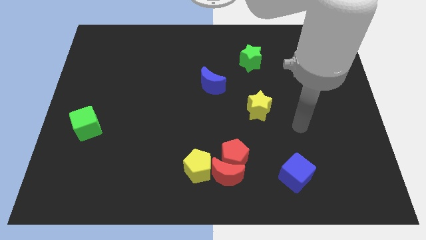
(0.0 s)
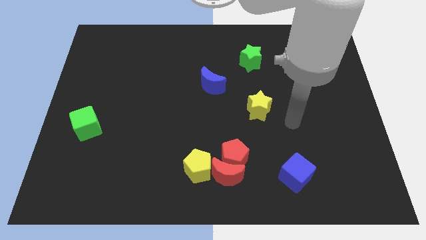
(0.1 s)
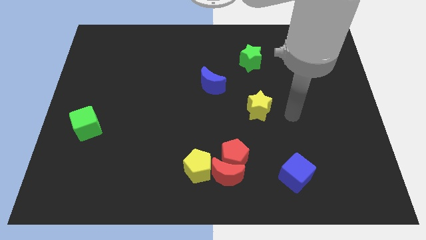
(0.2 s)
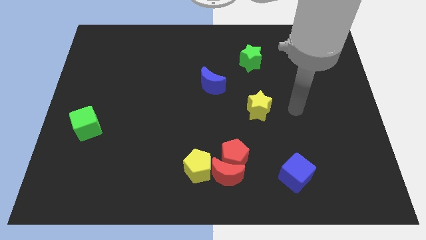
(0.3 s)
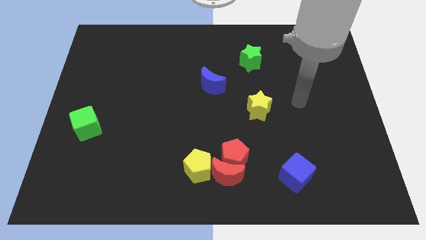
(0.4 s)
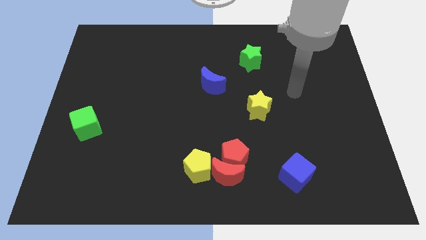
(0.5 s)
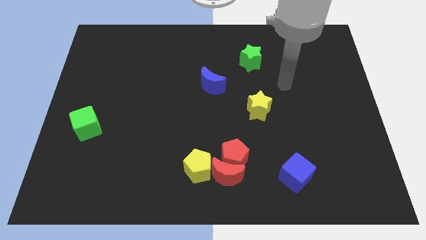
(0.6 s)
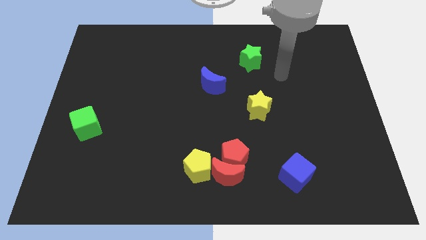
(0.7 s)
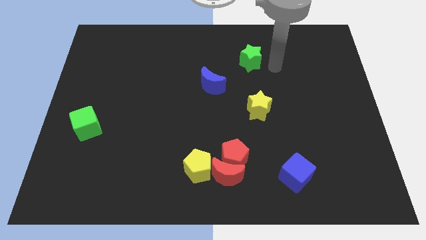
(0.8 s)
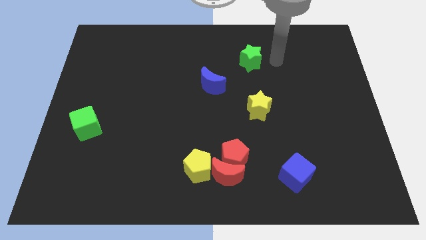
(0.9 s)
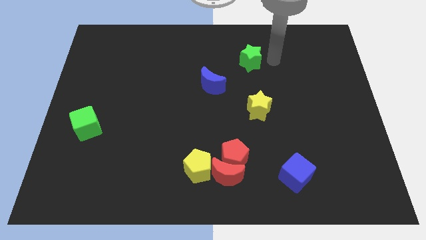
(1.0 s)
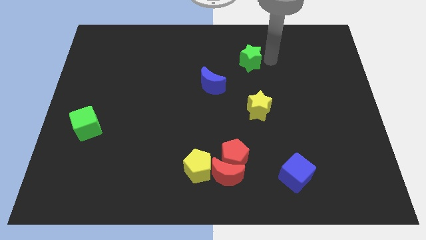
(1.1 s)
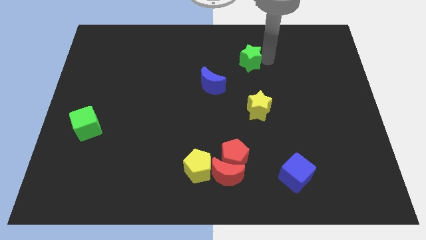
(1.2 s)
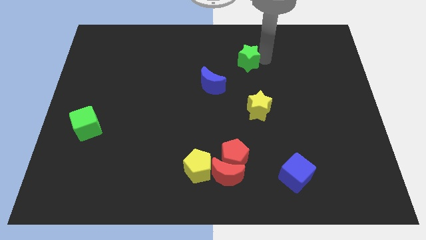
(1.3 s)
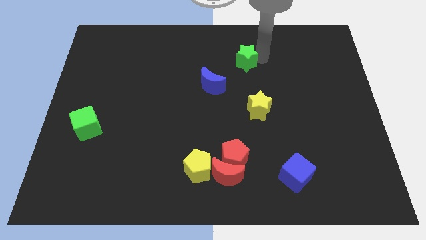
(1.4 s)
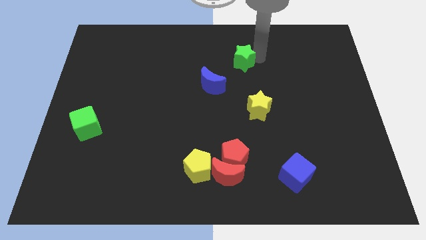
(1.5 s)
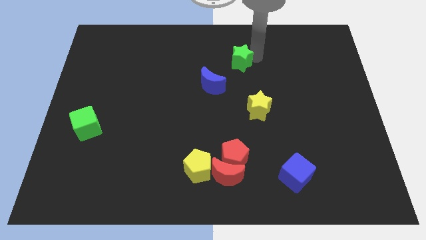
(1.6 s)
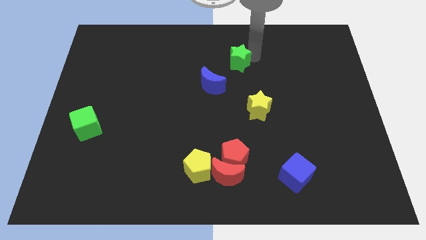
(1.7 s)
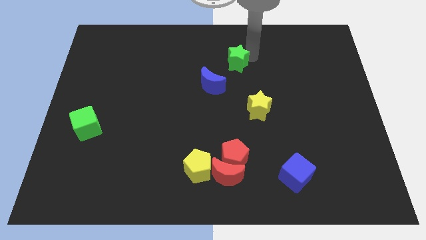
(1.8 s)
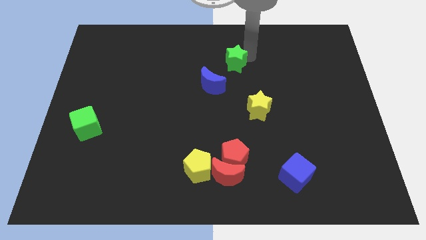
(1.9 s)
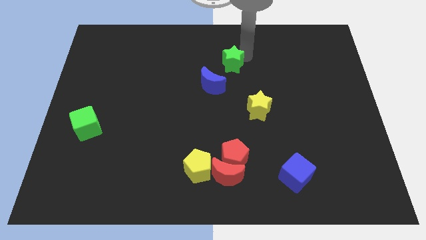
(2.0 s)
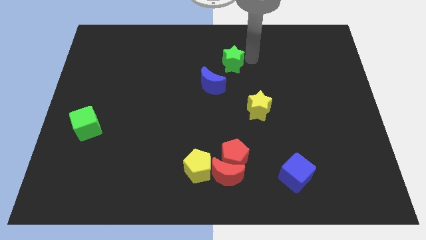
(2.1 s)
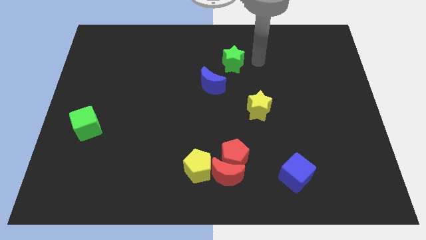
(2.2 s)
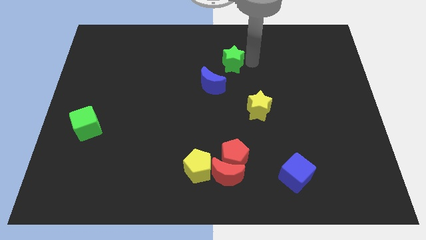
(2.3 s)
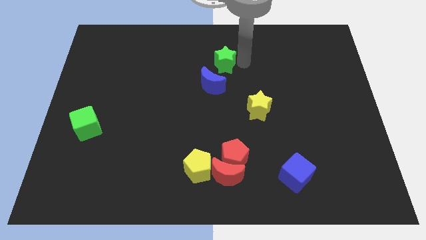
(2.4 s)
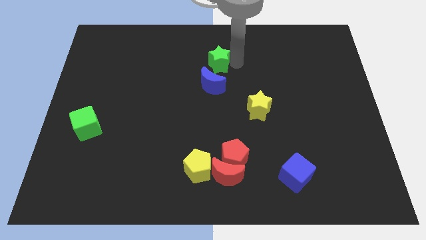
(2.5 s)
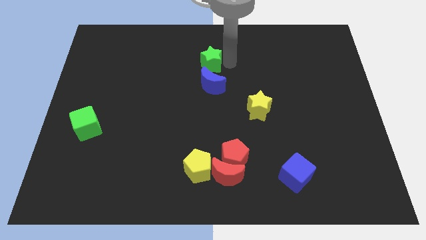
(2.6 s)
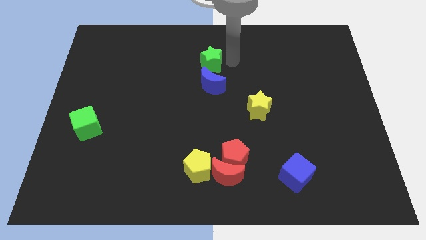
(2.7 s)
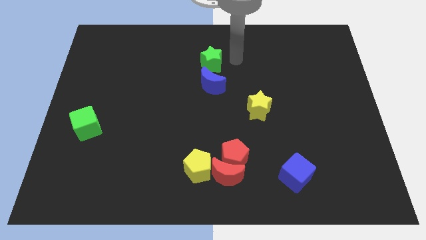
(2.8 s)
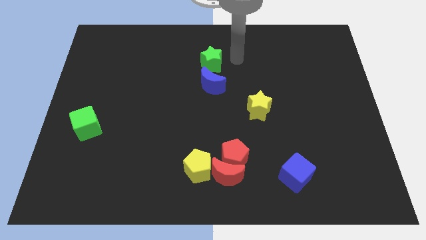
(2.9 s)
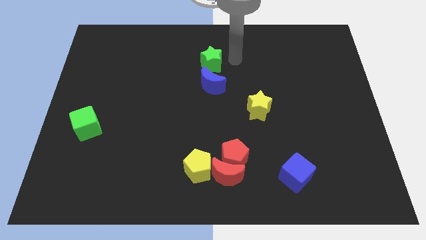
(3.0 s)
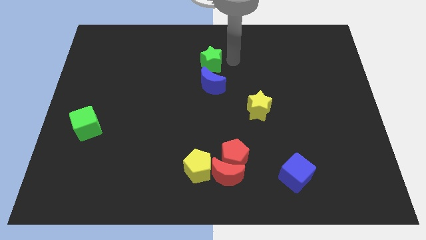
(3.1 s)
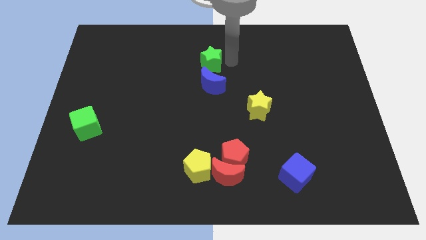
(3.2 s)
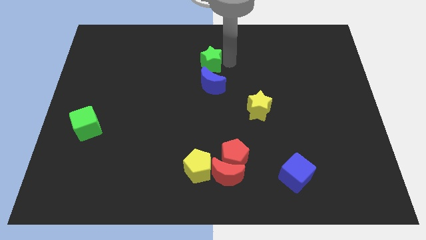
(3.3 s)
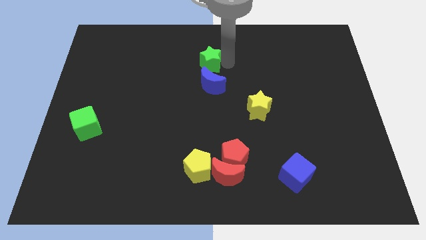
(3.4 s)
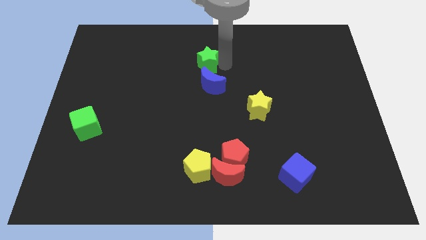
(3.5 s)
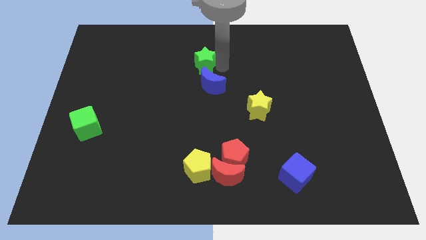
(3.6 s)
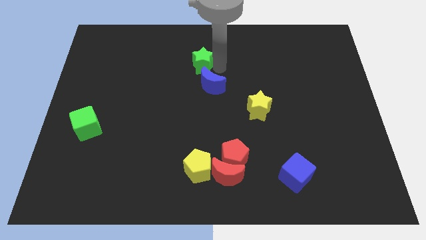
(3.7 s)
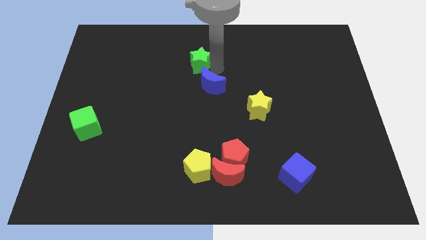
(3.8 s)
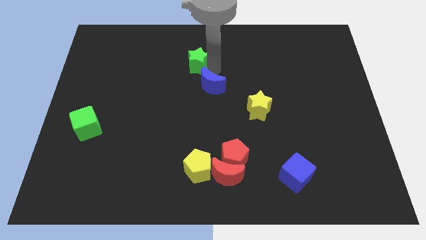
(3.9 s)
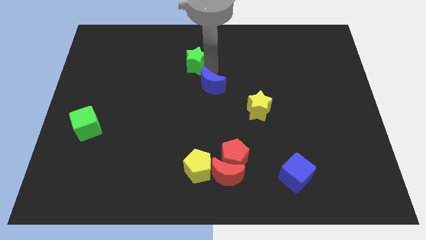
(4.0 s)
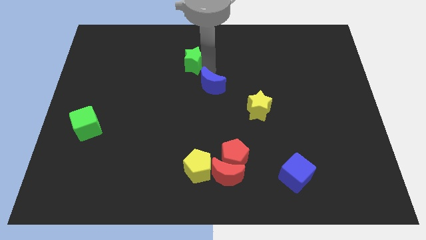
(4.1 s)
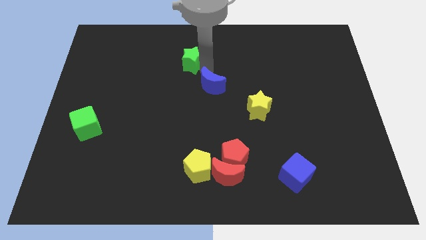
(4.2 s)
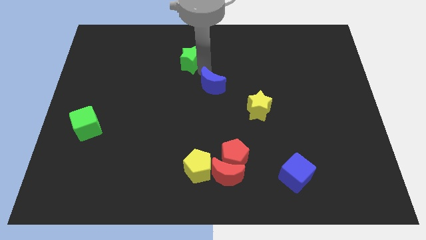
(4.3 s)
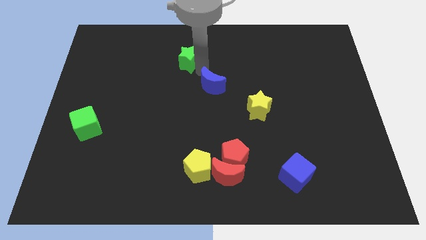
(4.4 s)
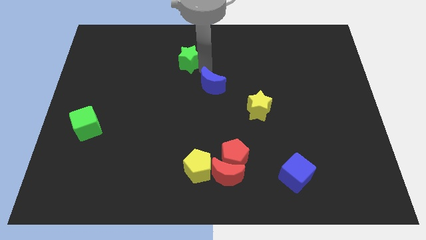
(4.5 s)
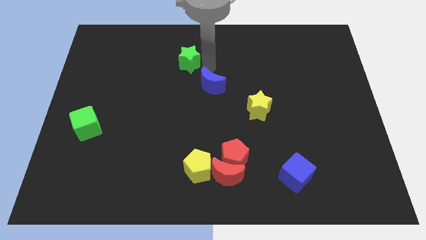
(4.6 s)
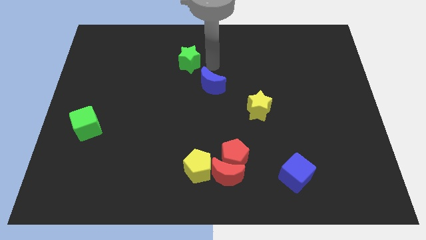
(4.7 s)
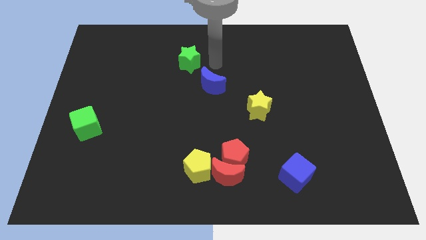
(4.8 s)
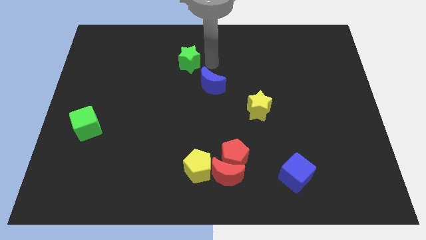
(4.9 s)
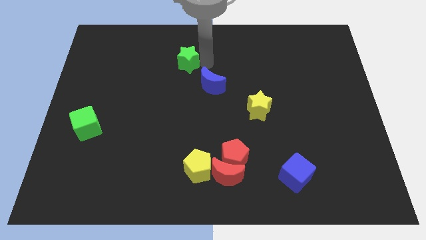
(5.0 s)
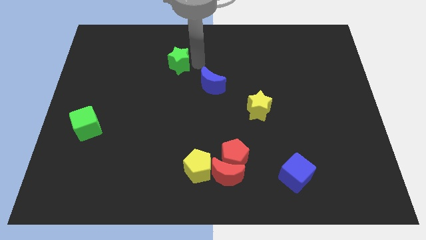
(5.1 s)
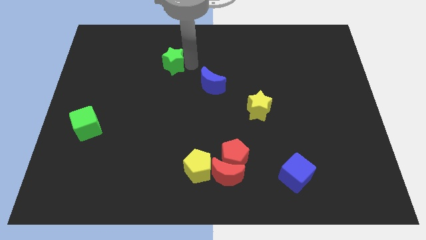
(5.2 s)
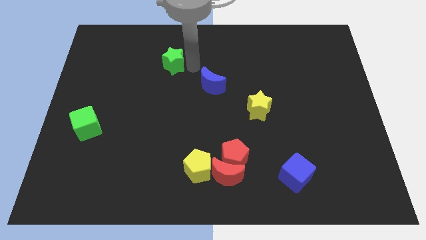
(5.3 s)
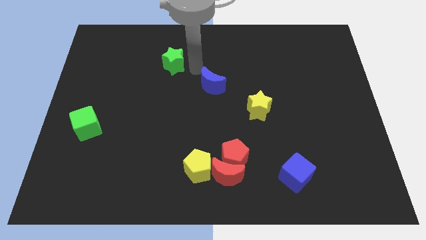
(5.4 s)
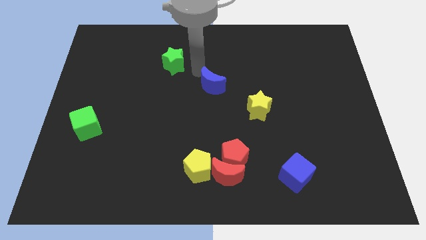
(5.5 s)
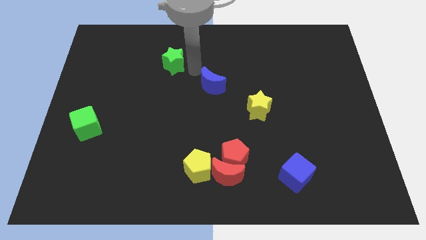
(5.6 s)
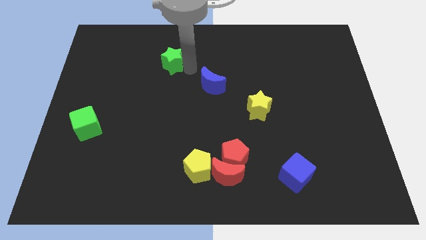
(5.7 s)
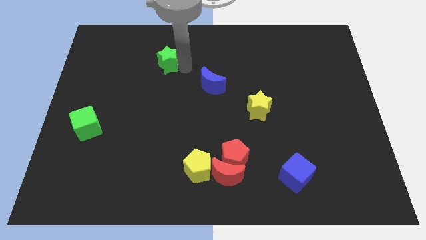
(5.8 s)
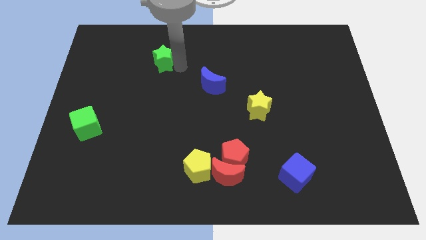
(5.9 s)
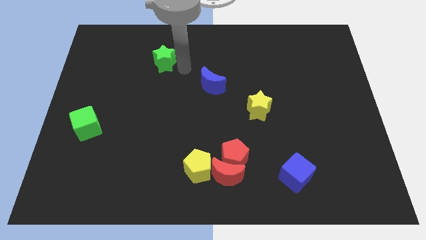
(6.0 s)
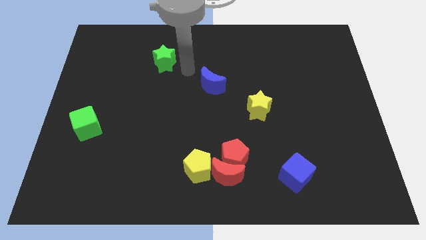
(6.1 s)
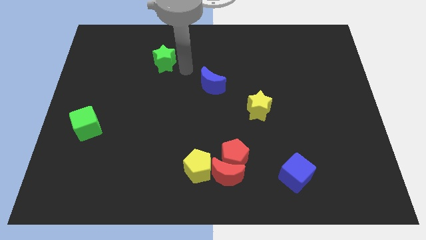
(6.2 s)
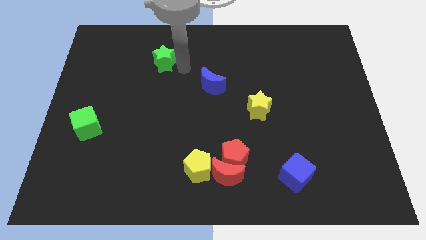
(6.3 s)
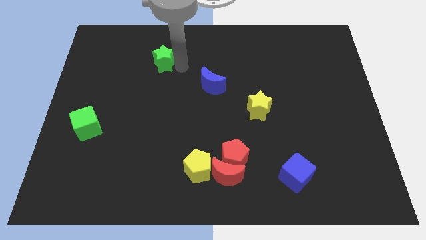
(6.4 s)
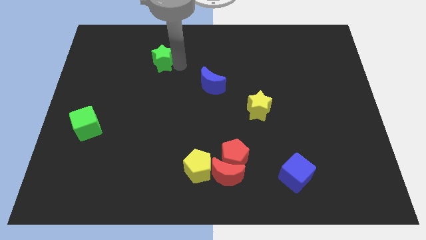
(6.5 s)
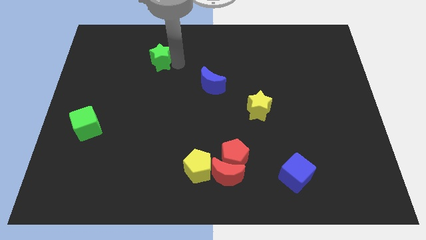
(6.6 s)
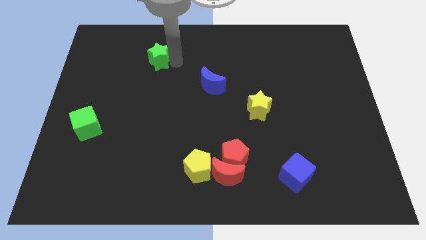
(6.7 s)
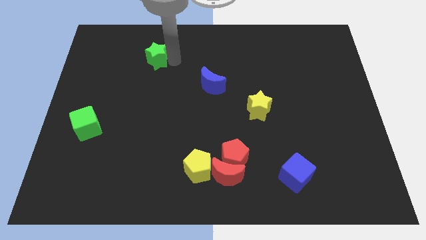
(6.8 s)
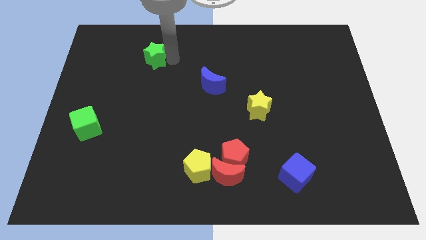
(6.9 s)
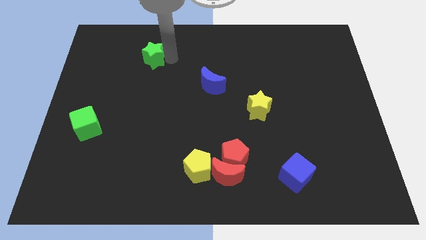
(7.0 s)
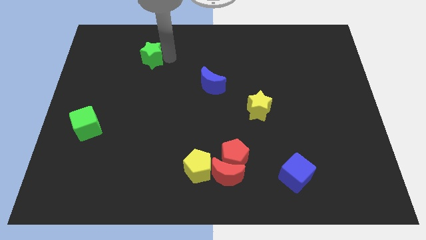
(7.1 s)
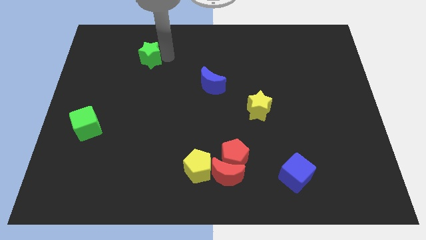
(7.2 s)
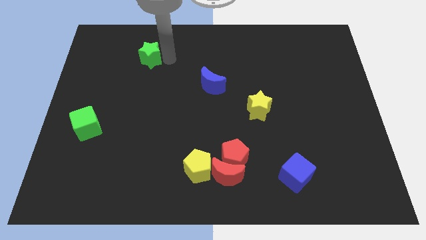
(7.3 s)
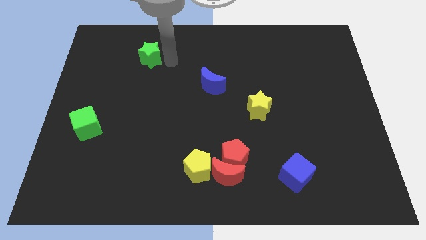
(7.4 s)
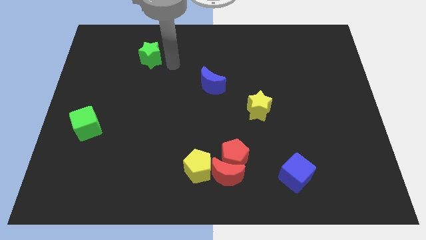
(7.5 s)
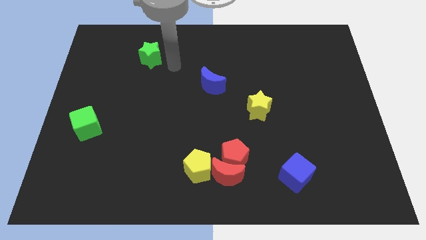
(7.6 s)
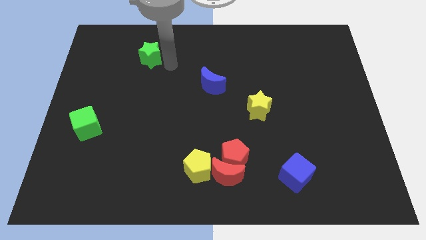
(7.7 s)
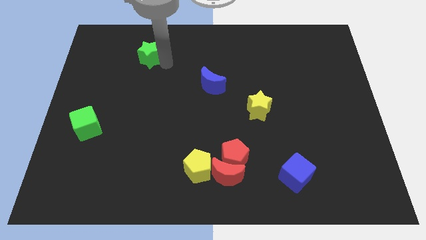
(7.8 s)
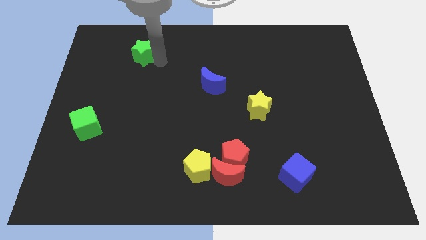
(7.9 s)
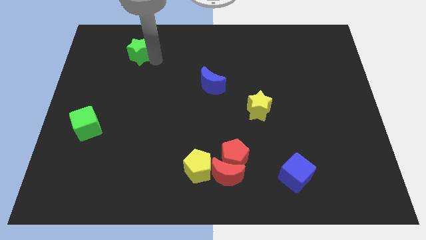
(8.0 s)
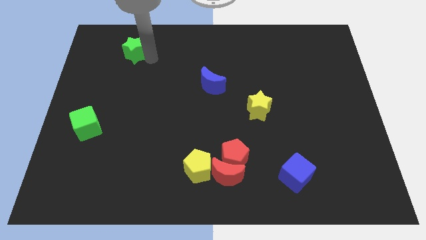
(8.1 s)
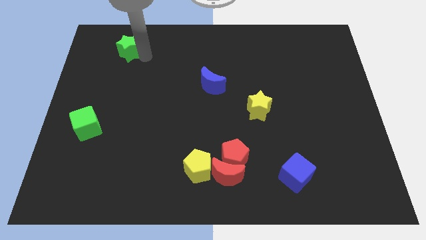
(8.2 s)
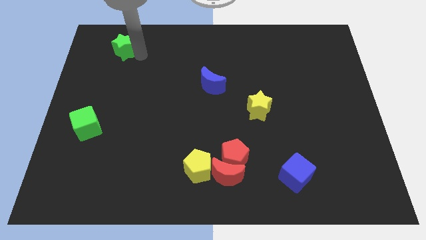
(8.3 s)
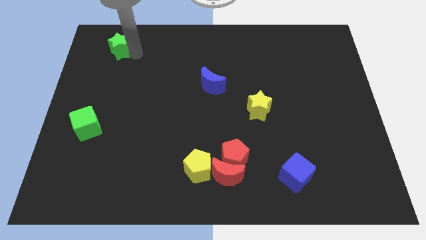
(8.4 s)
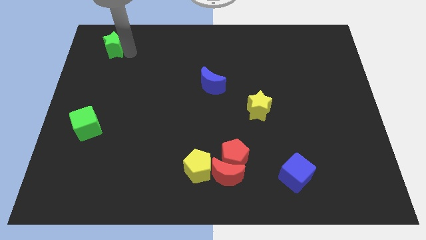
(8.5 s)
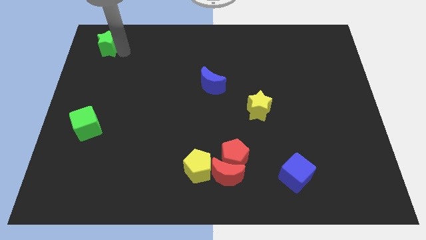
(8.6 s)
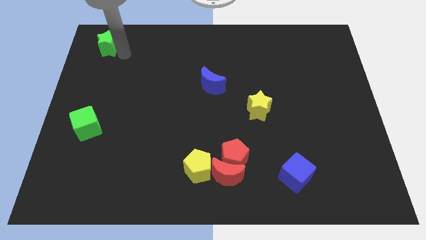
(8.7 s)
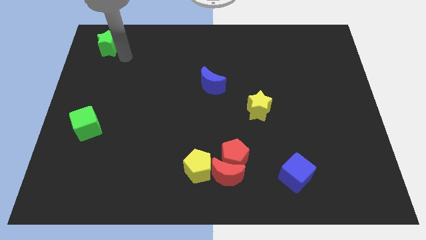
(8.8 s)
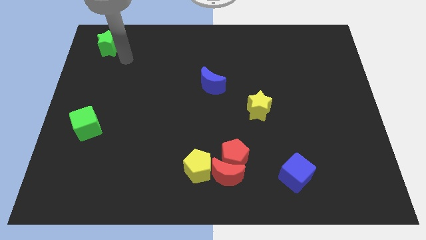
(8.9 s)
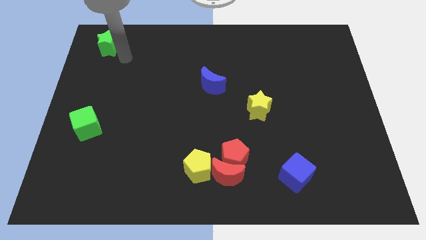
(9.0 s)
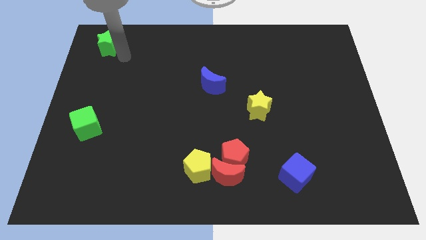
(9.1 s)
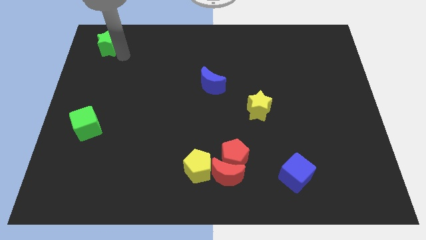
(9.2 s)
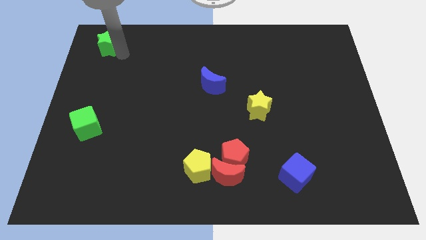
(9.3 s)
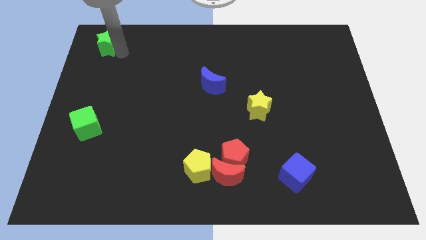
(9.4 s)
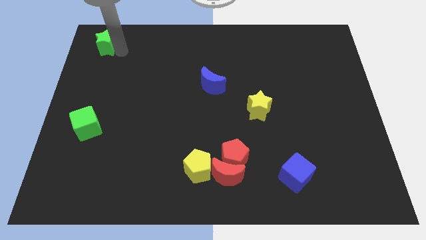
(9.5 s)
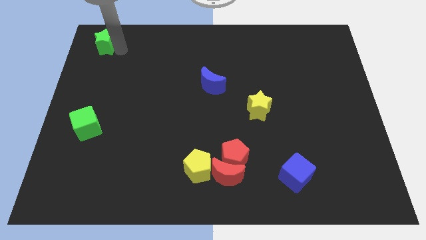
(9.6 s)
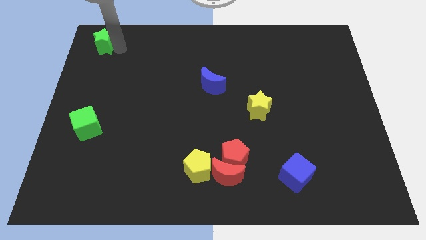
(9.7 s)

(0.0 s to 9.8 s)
put the green star to the top left corner
